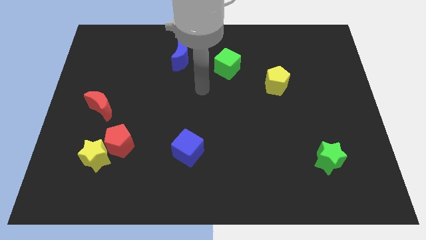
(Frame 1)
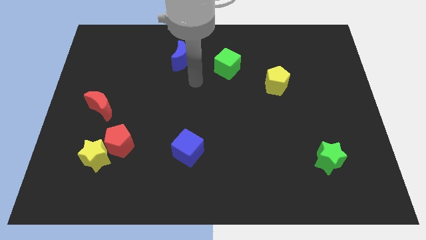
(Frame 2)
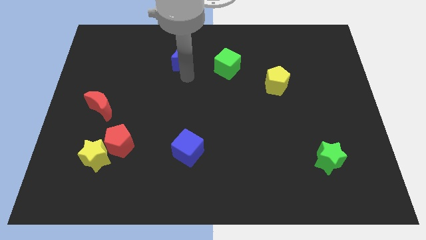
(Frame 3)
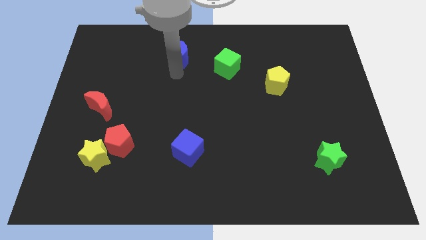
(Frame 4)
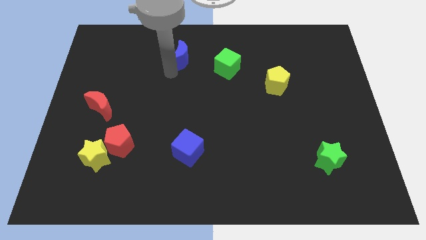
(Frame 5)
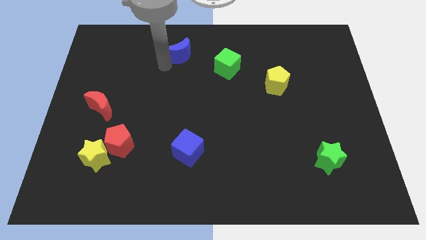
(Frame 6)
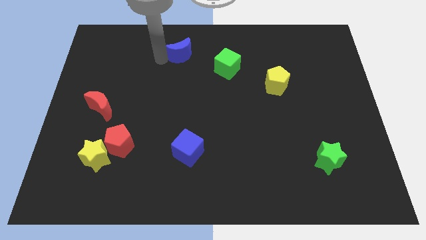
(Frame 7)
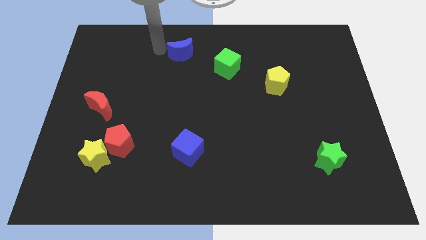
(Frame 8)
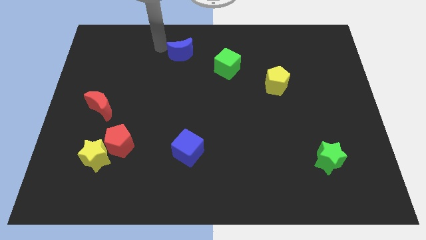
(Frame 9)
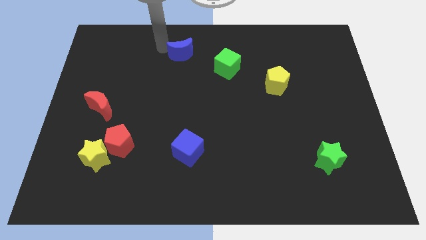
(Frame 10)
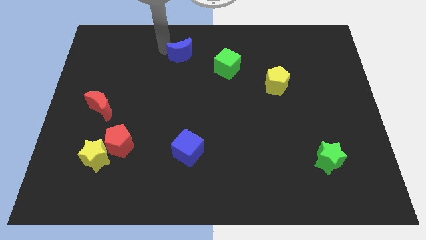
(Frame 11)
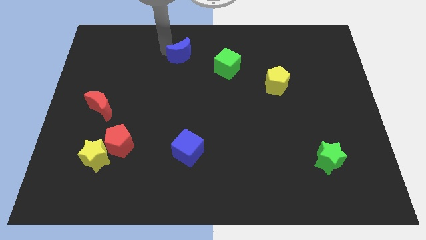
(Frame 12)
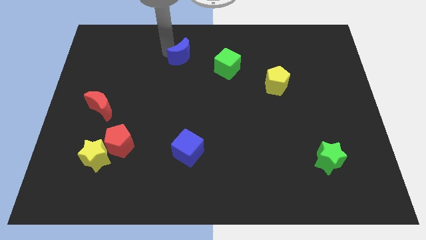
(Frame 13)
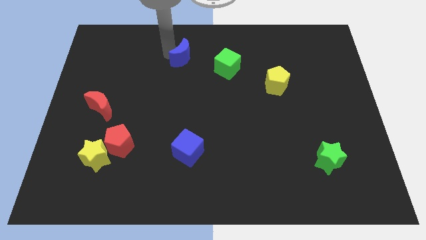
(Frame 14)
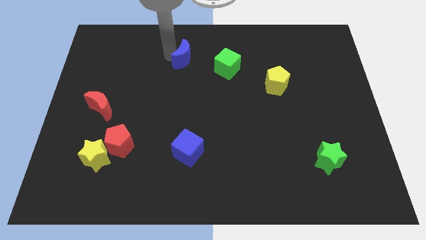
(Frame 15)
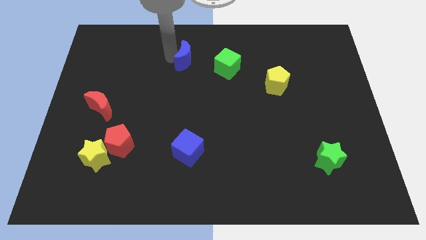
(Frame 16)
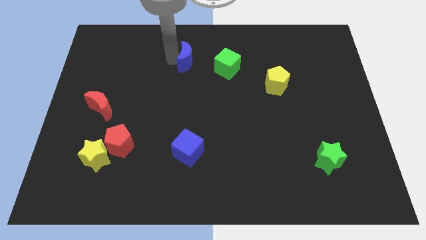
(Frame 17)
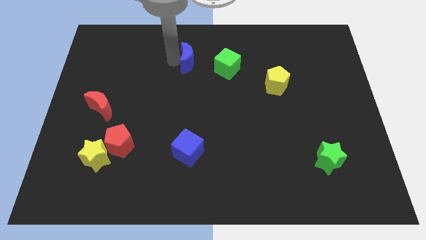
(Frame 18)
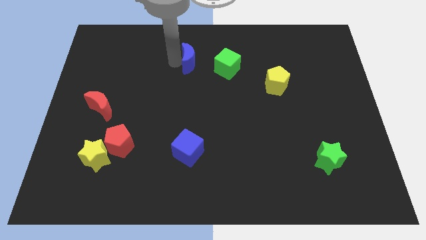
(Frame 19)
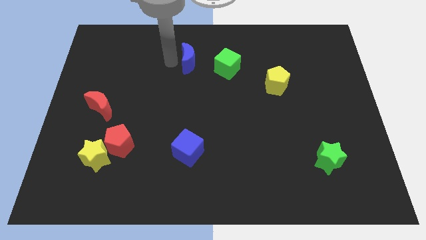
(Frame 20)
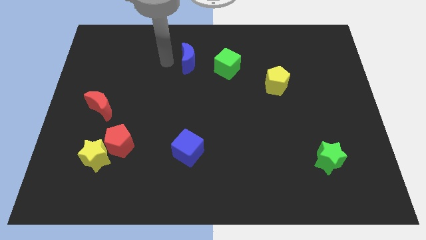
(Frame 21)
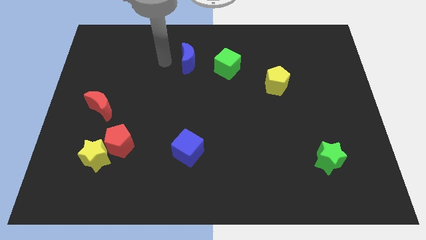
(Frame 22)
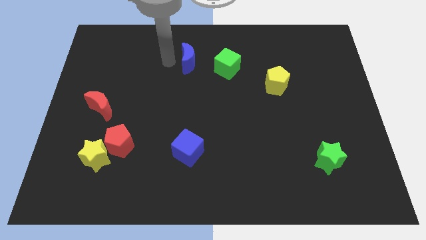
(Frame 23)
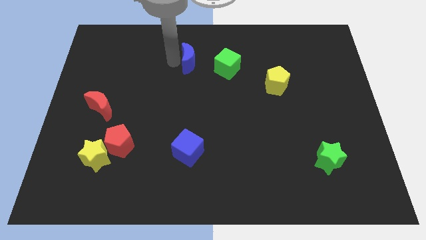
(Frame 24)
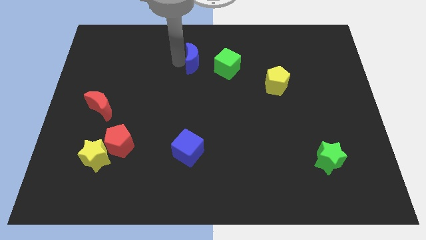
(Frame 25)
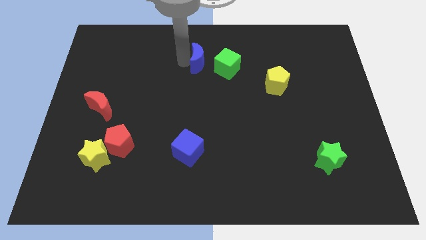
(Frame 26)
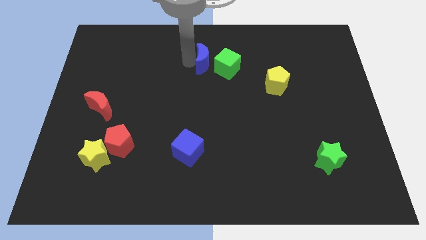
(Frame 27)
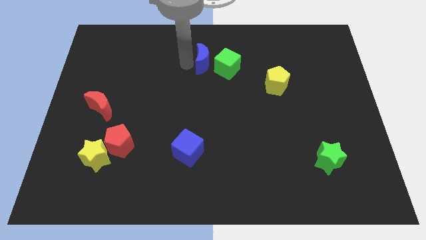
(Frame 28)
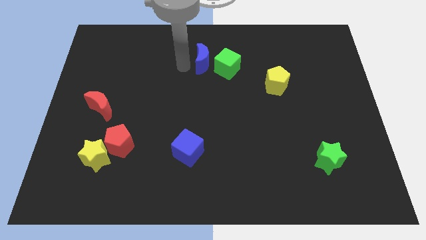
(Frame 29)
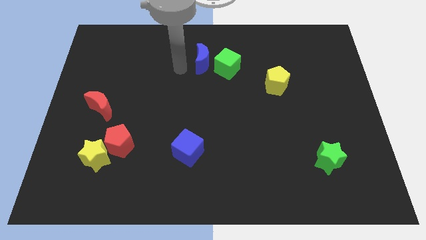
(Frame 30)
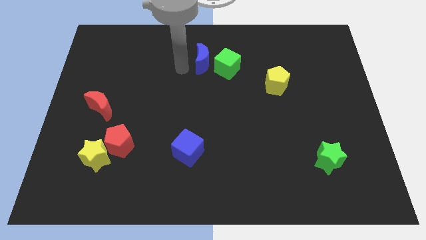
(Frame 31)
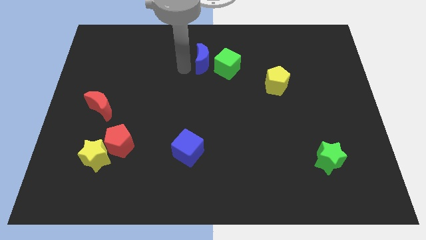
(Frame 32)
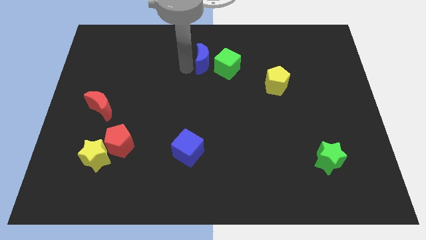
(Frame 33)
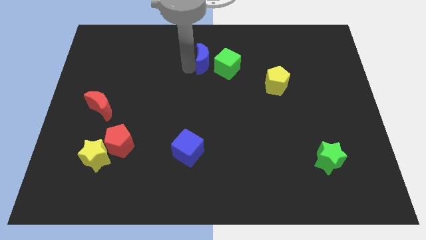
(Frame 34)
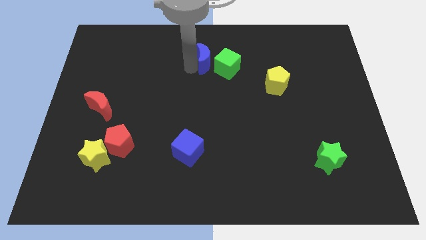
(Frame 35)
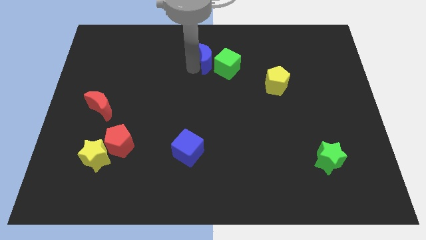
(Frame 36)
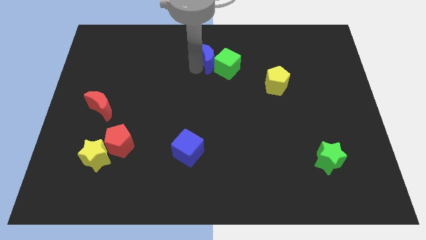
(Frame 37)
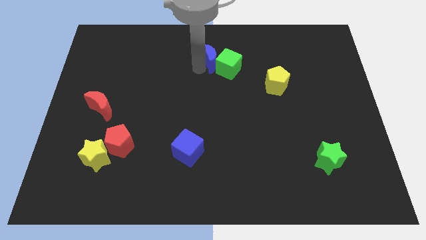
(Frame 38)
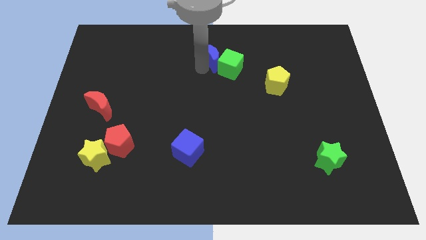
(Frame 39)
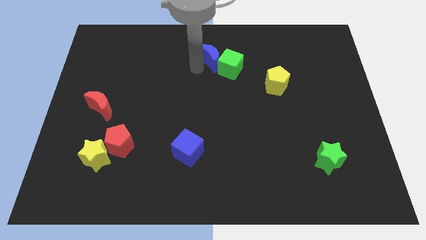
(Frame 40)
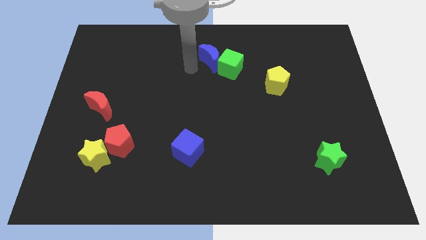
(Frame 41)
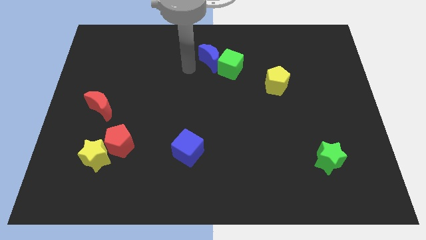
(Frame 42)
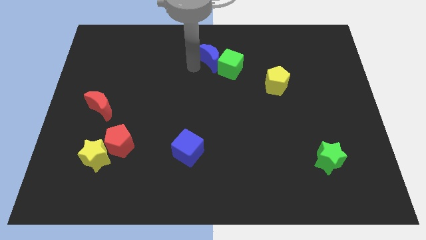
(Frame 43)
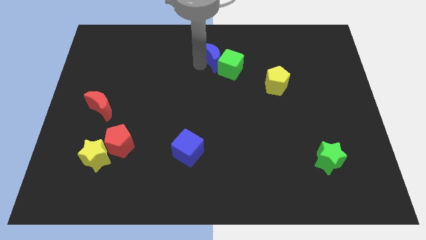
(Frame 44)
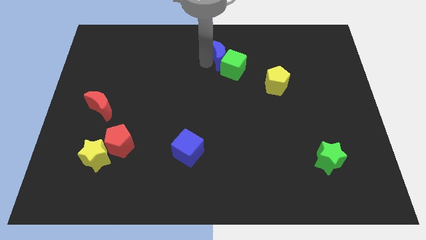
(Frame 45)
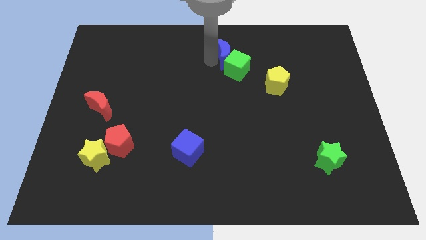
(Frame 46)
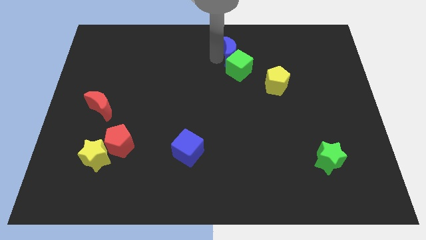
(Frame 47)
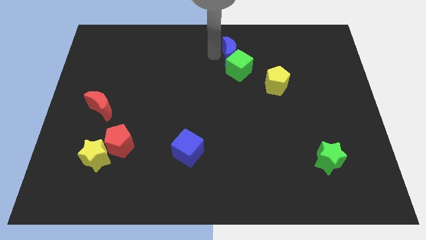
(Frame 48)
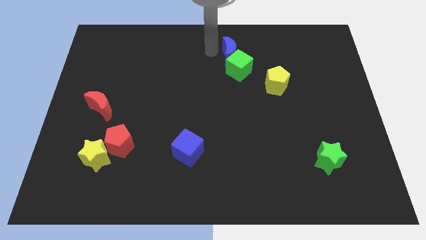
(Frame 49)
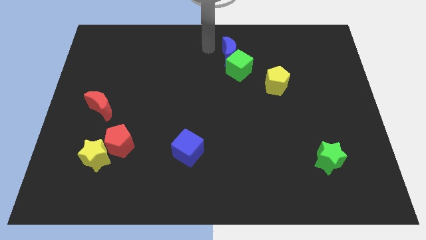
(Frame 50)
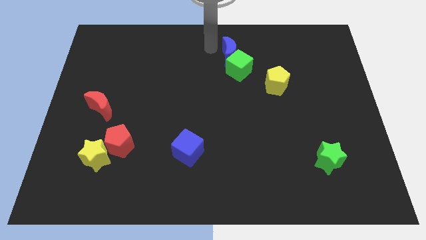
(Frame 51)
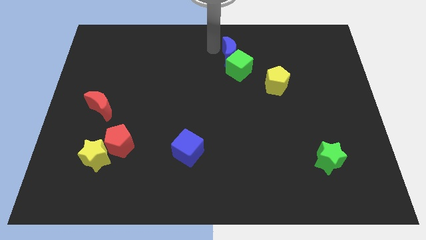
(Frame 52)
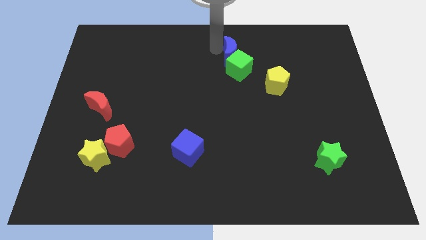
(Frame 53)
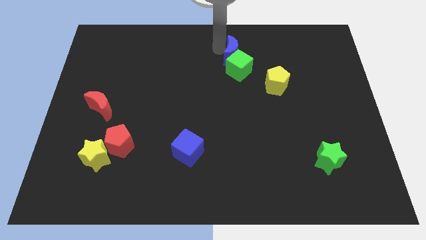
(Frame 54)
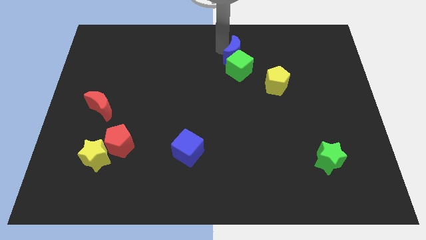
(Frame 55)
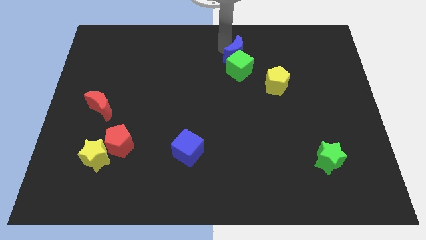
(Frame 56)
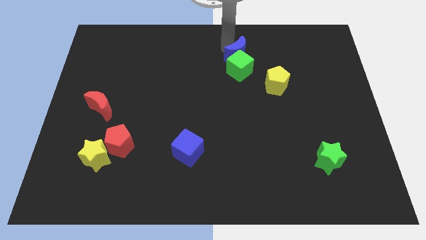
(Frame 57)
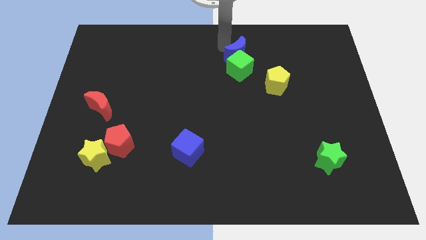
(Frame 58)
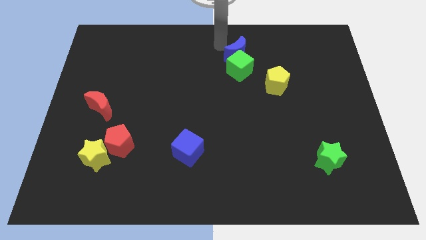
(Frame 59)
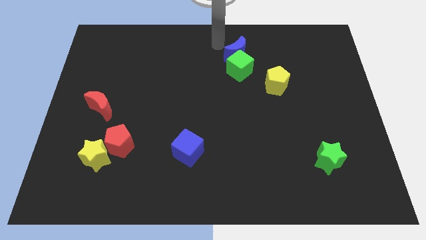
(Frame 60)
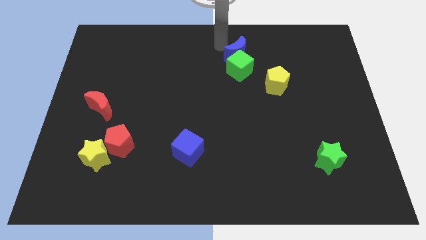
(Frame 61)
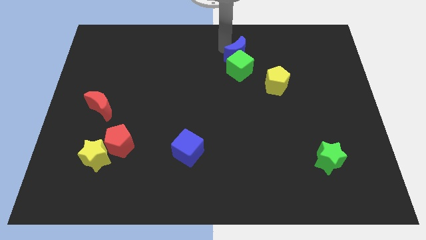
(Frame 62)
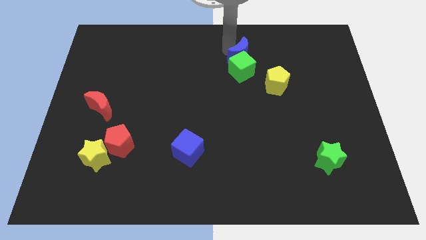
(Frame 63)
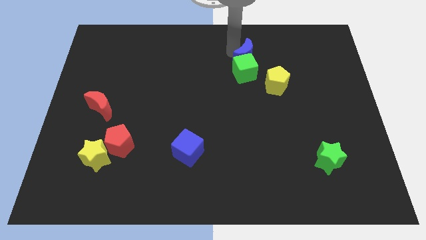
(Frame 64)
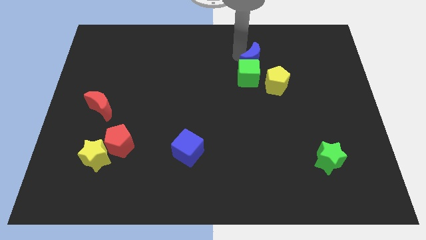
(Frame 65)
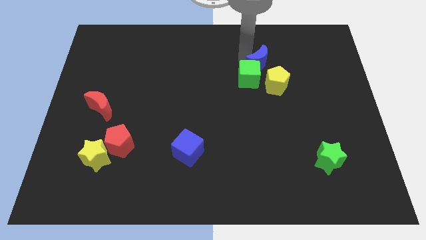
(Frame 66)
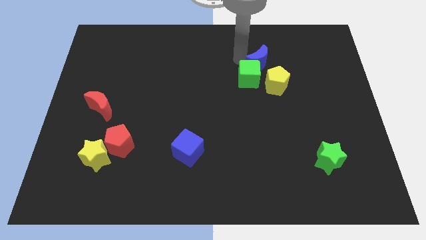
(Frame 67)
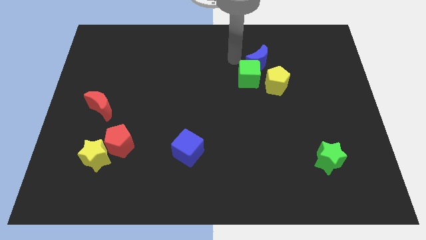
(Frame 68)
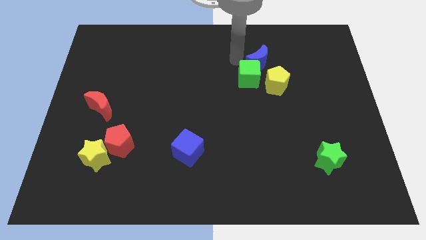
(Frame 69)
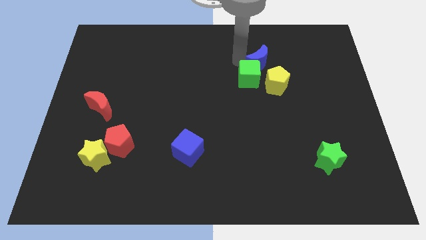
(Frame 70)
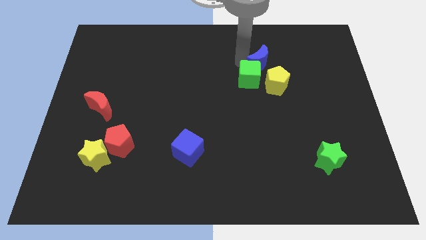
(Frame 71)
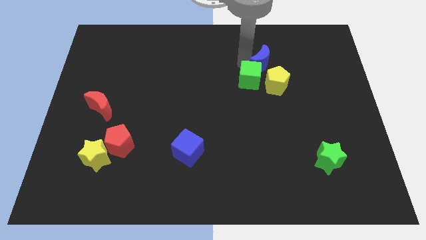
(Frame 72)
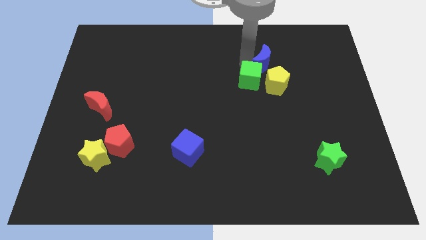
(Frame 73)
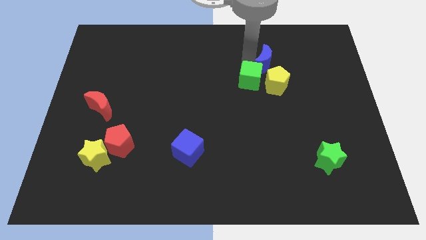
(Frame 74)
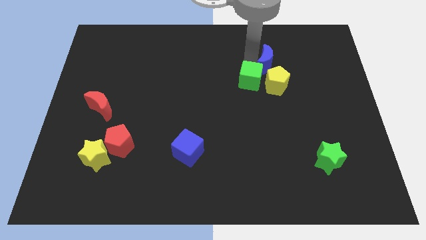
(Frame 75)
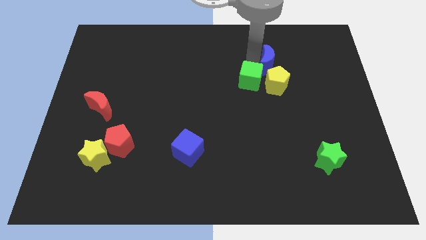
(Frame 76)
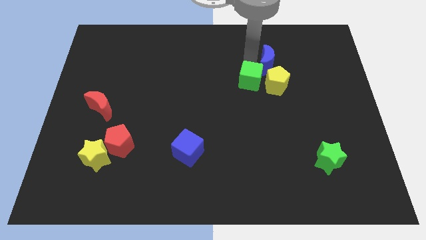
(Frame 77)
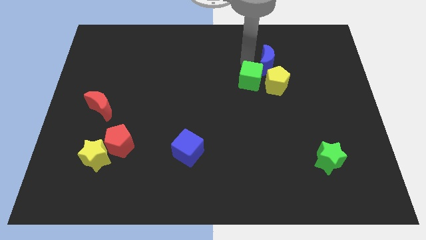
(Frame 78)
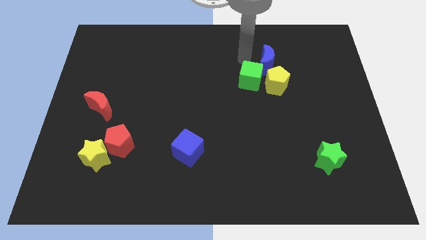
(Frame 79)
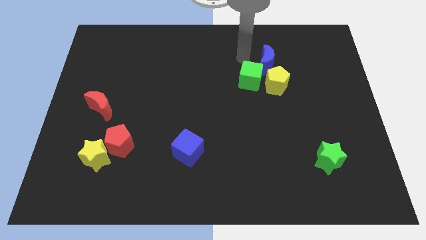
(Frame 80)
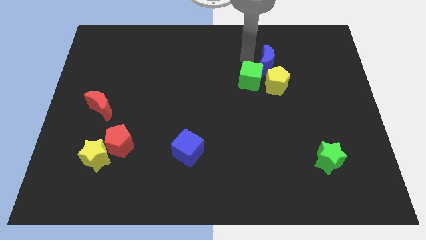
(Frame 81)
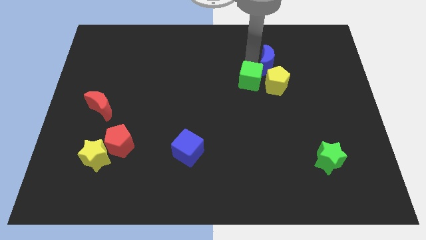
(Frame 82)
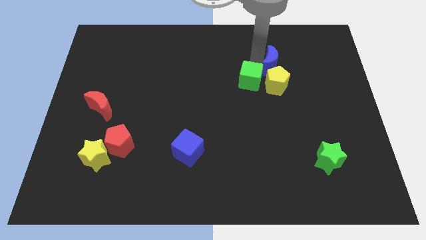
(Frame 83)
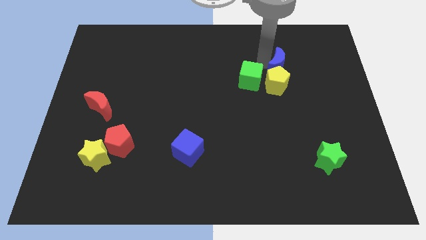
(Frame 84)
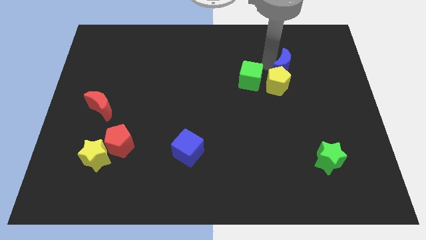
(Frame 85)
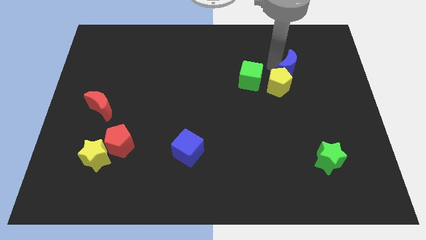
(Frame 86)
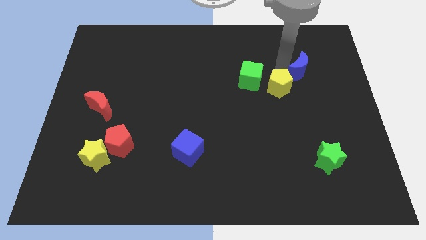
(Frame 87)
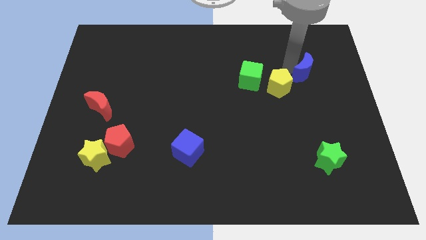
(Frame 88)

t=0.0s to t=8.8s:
move the blue moon to the right of the yellow pentagon
